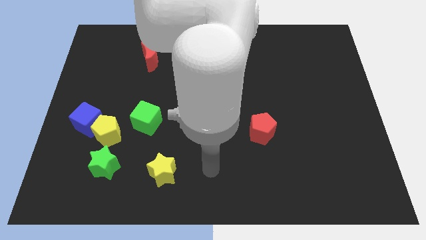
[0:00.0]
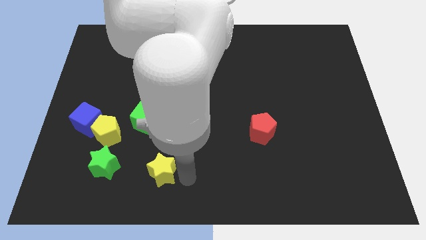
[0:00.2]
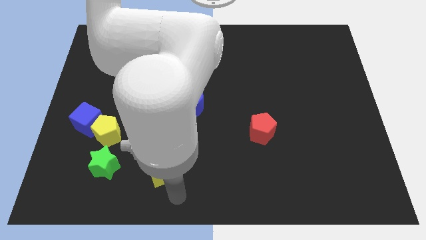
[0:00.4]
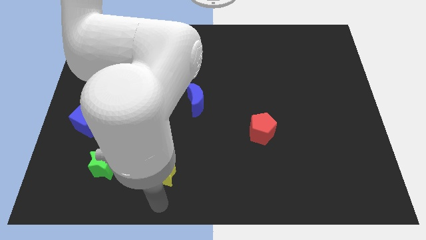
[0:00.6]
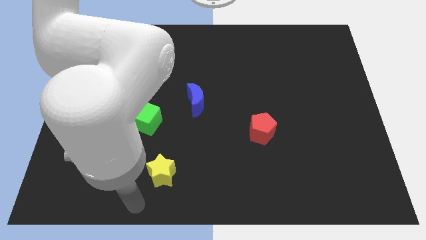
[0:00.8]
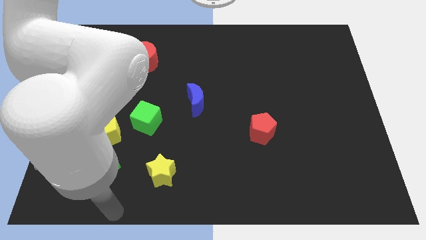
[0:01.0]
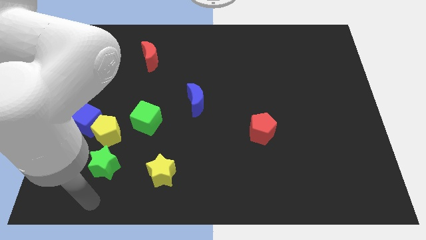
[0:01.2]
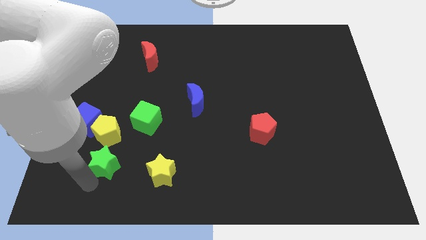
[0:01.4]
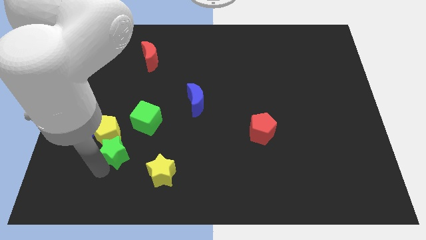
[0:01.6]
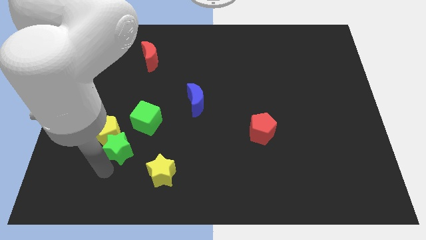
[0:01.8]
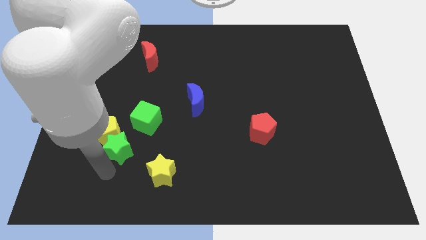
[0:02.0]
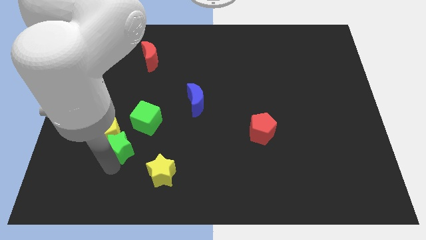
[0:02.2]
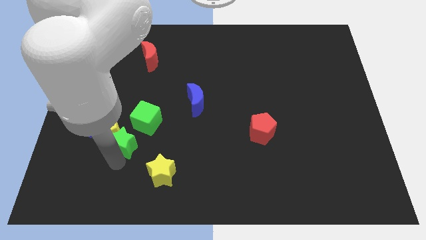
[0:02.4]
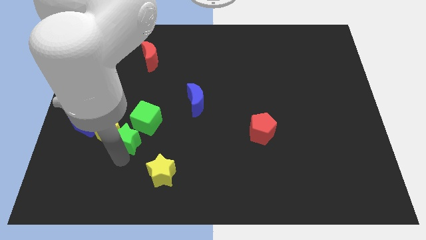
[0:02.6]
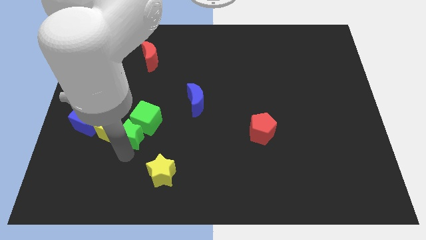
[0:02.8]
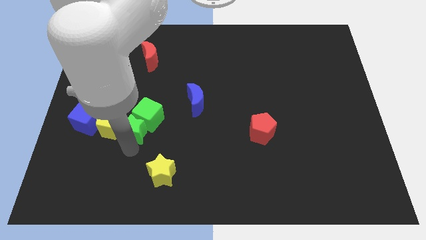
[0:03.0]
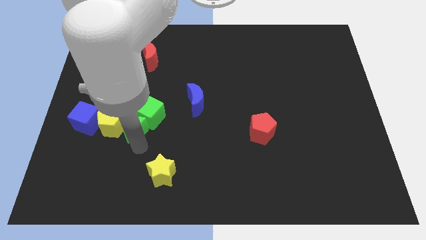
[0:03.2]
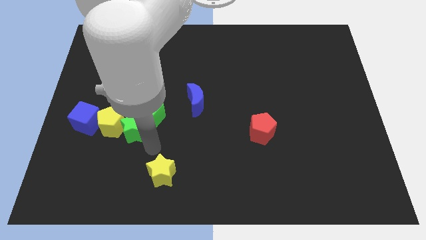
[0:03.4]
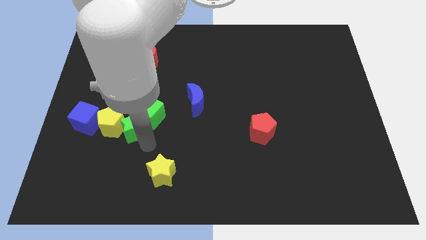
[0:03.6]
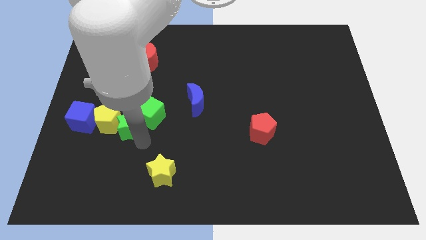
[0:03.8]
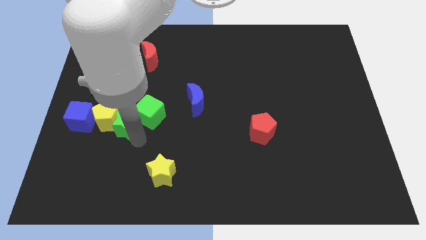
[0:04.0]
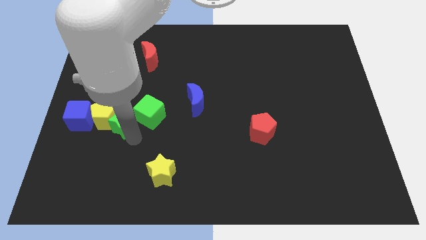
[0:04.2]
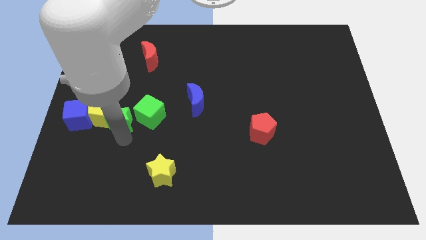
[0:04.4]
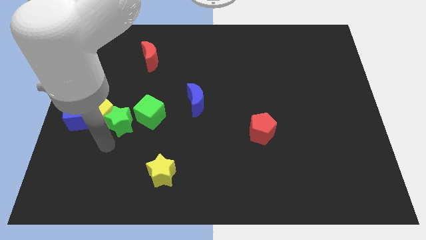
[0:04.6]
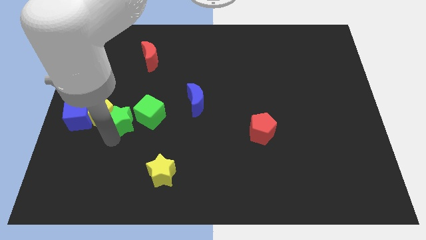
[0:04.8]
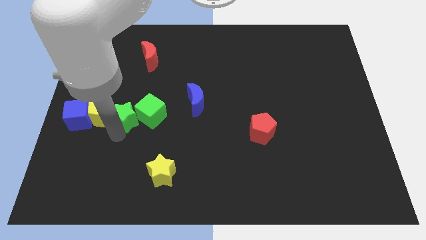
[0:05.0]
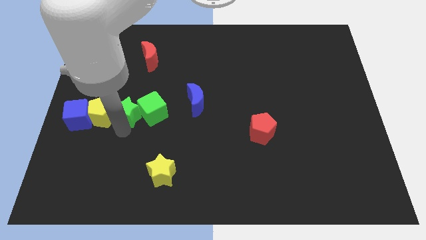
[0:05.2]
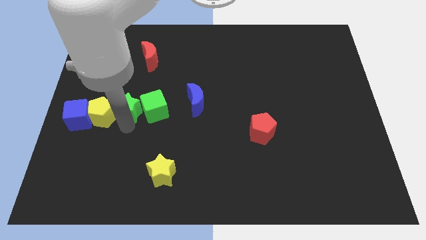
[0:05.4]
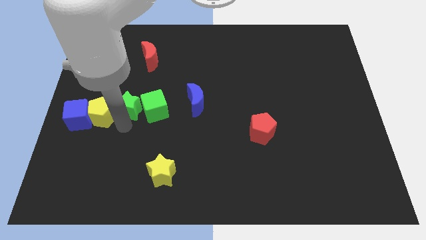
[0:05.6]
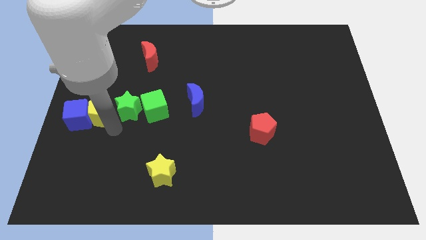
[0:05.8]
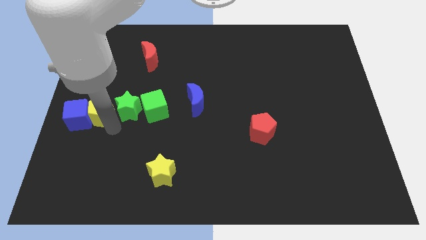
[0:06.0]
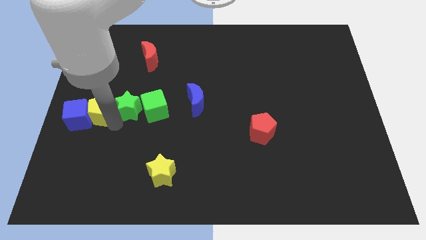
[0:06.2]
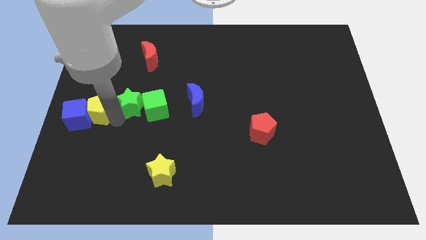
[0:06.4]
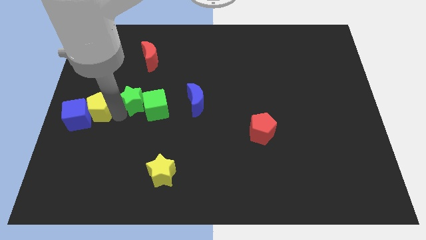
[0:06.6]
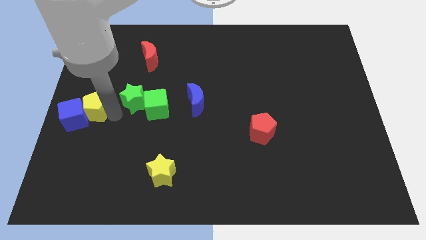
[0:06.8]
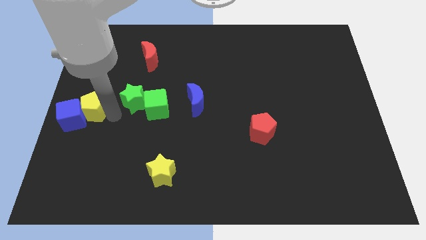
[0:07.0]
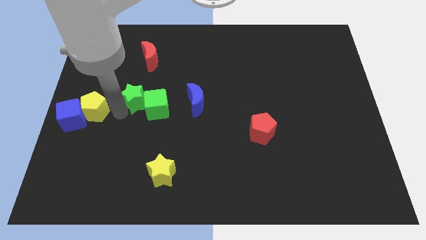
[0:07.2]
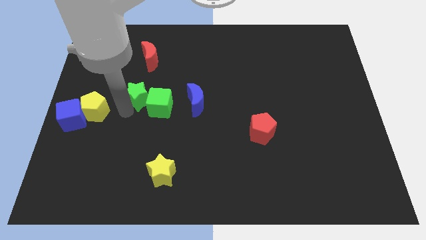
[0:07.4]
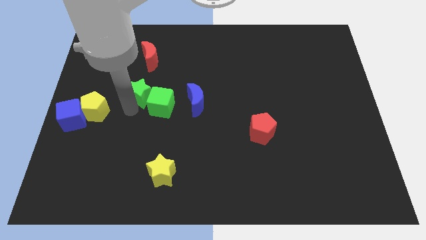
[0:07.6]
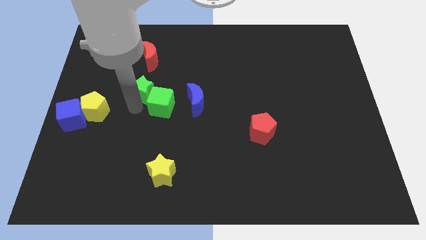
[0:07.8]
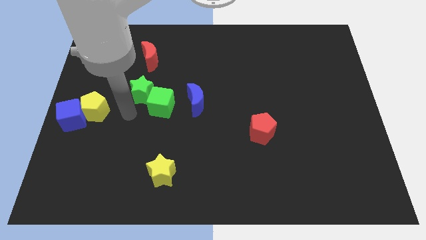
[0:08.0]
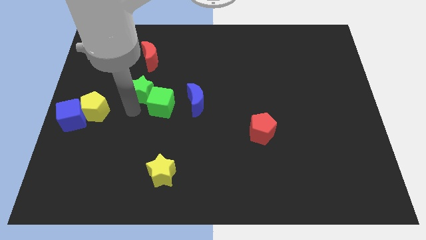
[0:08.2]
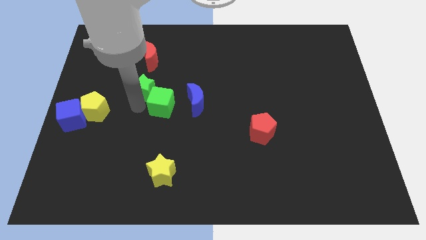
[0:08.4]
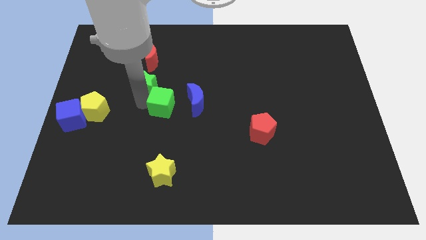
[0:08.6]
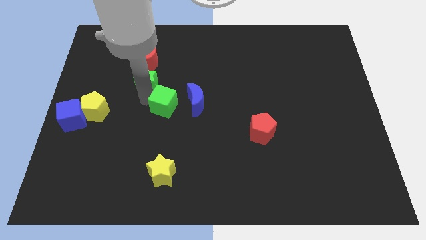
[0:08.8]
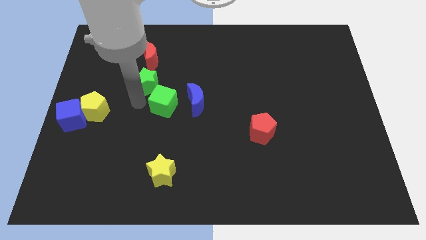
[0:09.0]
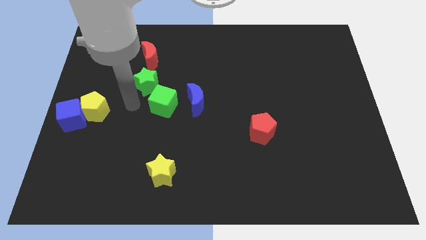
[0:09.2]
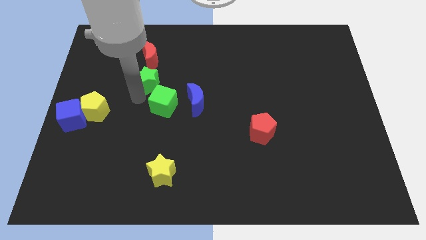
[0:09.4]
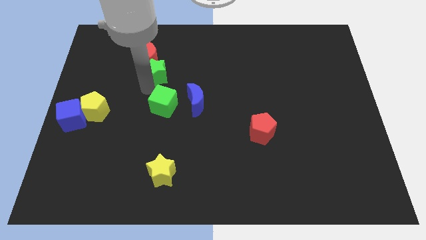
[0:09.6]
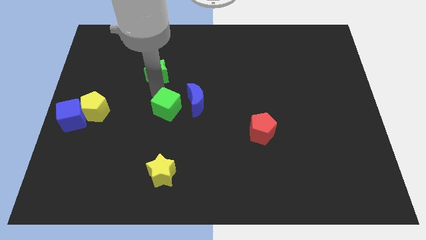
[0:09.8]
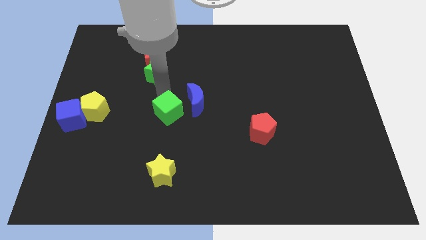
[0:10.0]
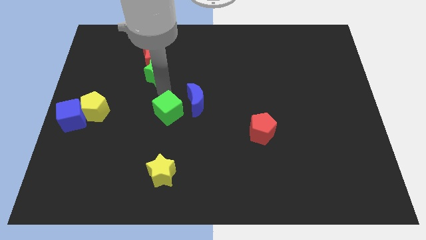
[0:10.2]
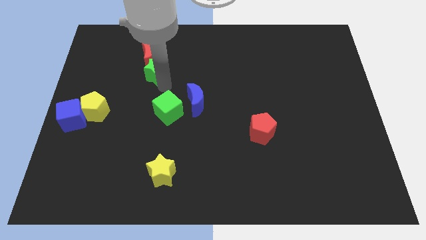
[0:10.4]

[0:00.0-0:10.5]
slide the green star close to the red moon

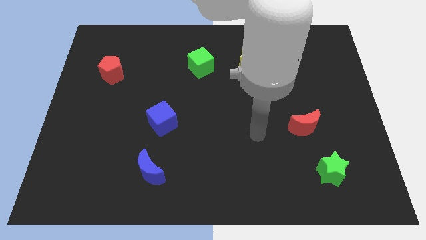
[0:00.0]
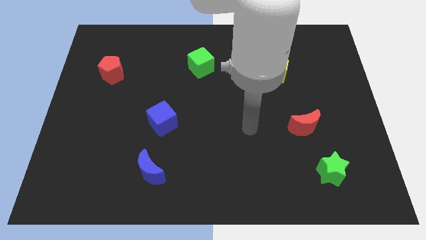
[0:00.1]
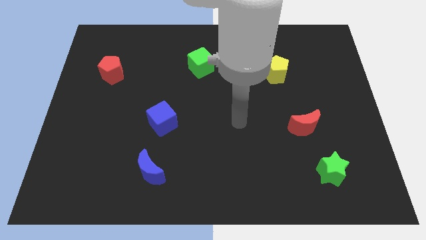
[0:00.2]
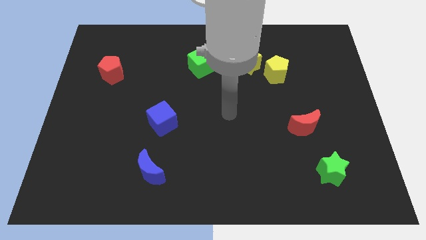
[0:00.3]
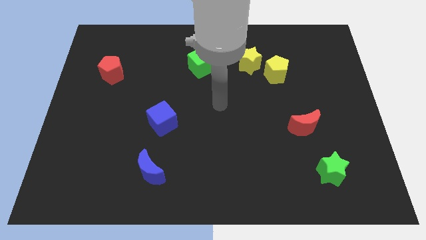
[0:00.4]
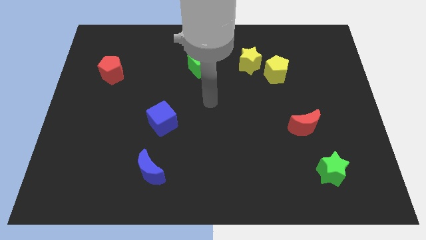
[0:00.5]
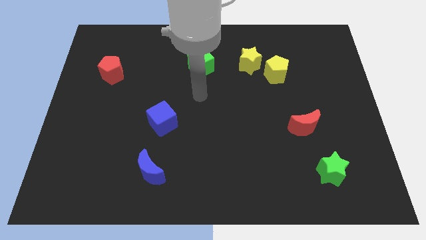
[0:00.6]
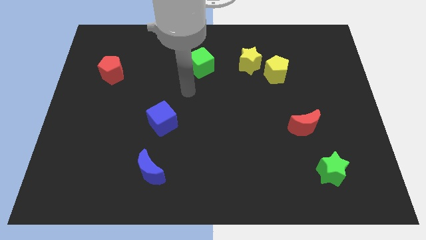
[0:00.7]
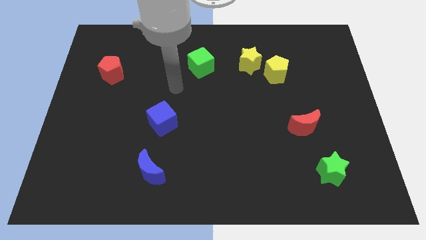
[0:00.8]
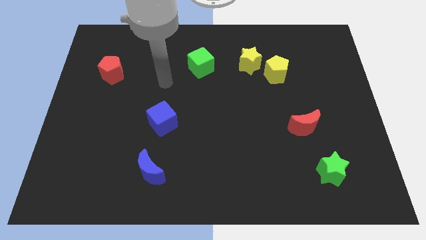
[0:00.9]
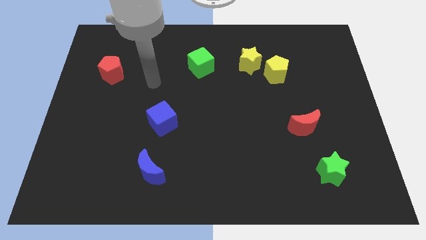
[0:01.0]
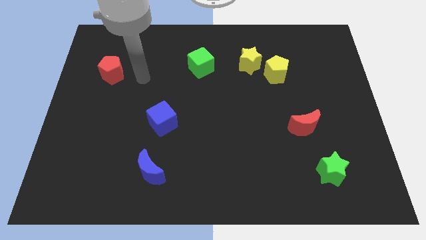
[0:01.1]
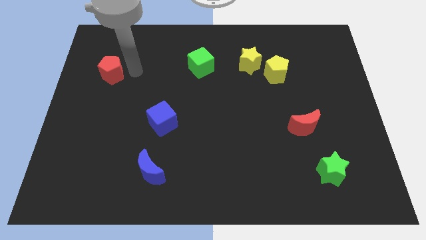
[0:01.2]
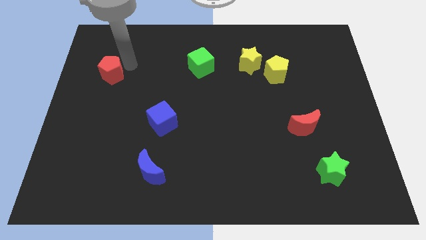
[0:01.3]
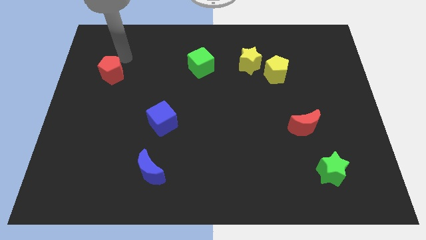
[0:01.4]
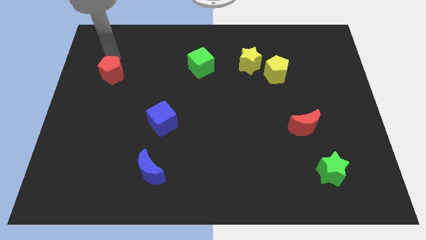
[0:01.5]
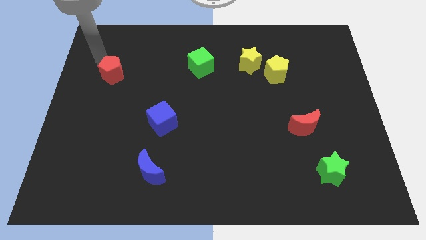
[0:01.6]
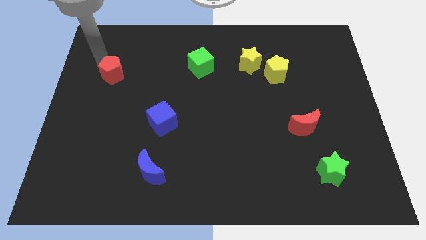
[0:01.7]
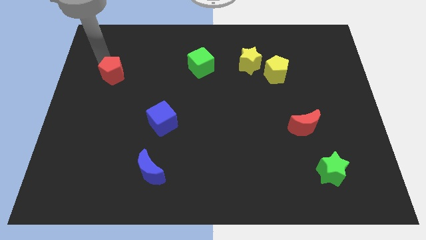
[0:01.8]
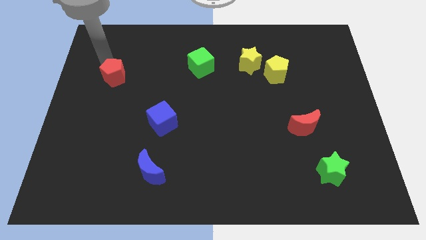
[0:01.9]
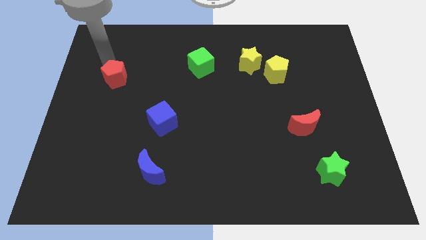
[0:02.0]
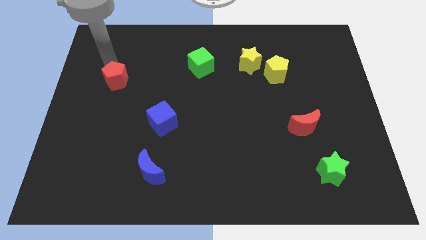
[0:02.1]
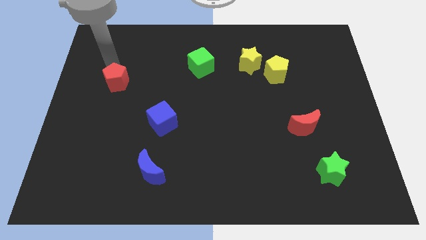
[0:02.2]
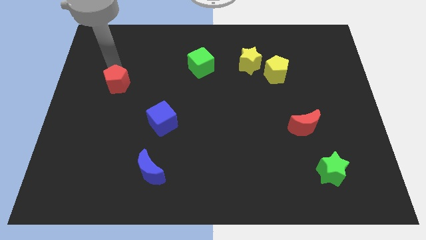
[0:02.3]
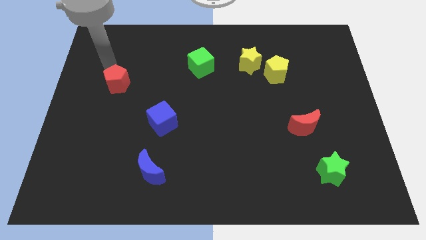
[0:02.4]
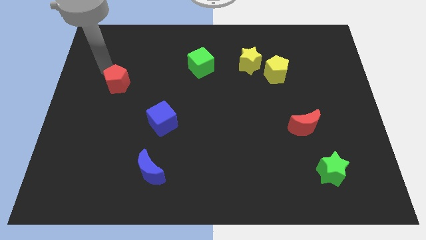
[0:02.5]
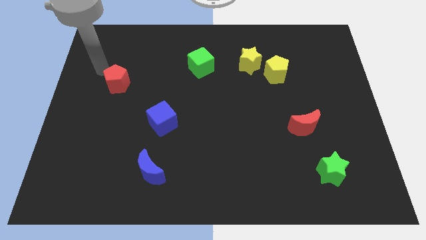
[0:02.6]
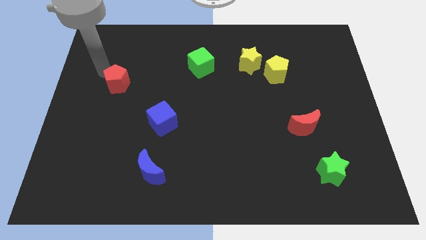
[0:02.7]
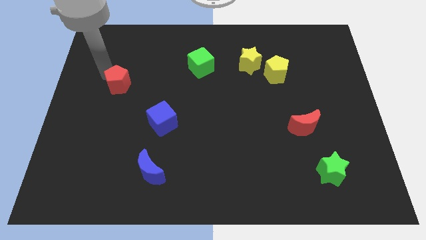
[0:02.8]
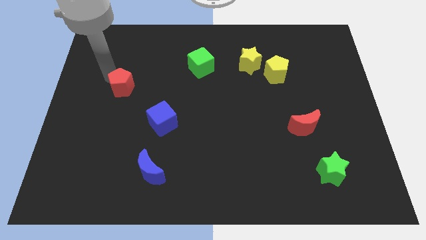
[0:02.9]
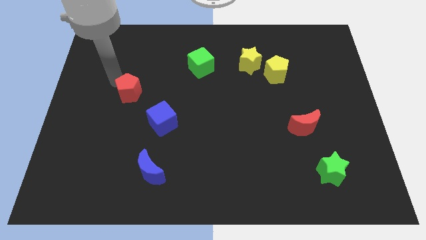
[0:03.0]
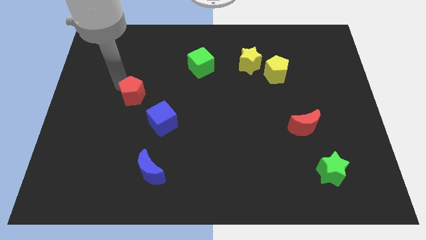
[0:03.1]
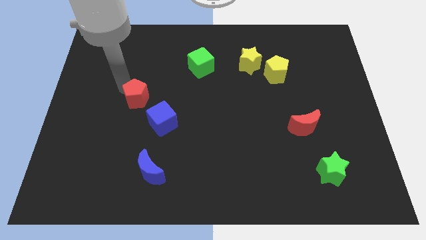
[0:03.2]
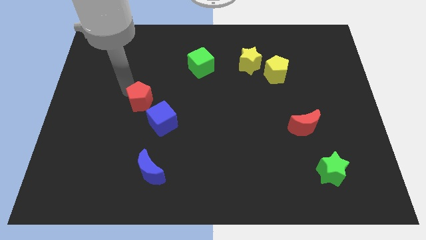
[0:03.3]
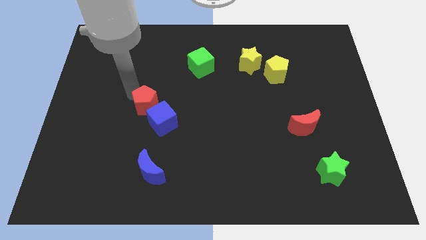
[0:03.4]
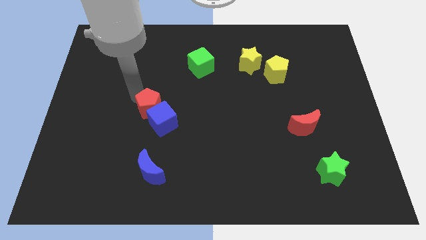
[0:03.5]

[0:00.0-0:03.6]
move the red pentagon to the blue cube
